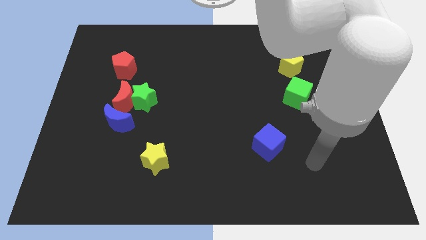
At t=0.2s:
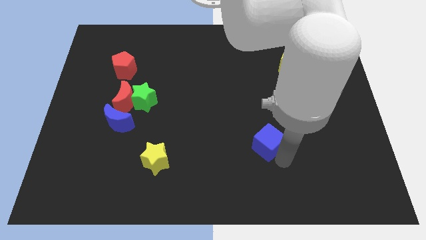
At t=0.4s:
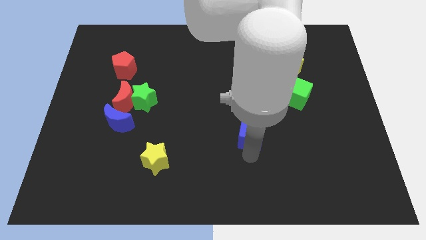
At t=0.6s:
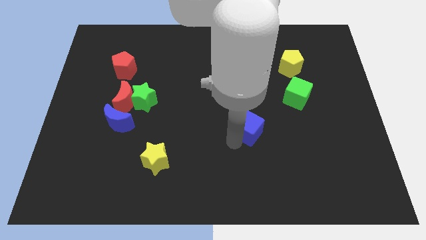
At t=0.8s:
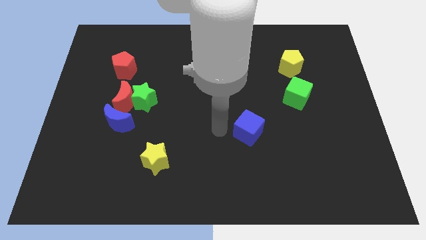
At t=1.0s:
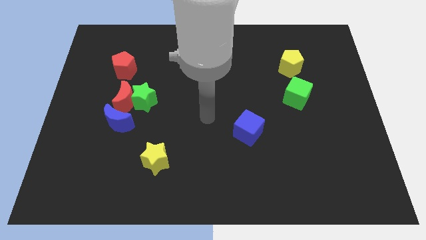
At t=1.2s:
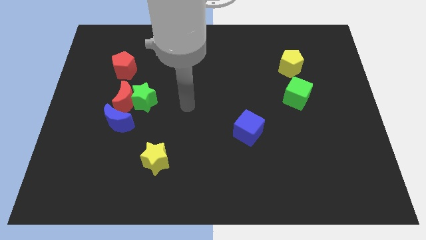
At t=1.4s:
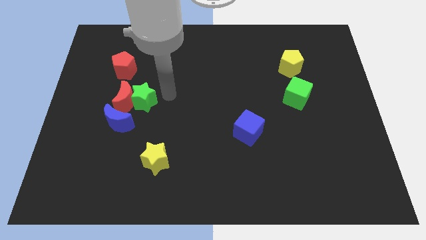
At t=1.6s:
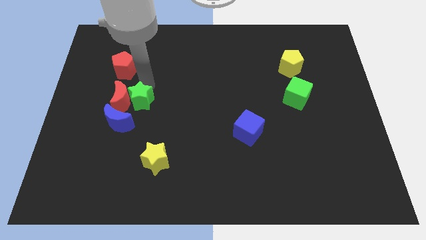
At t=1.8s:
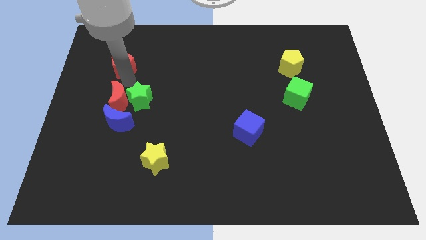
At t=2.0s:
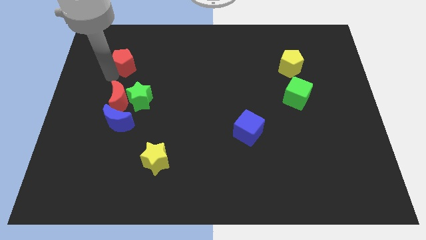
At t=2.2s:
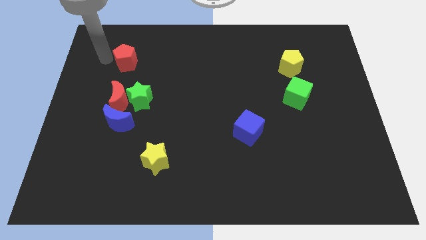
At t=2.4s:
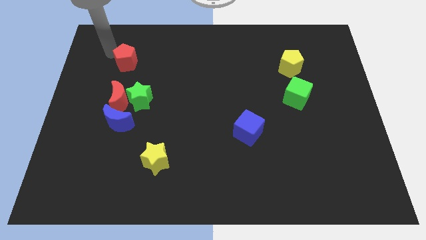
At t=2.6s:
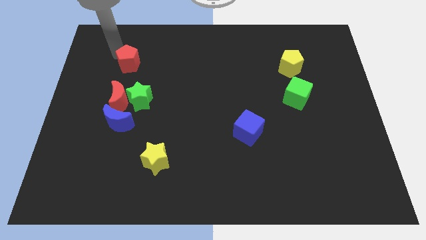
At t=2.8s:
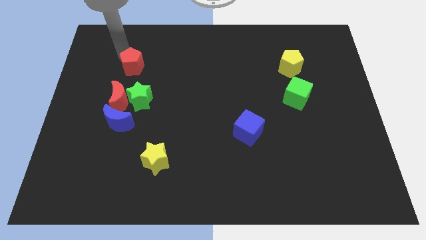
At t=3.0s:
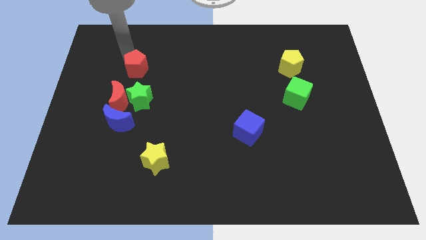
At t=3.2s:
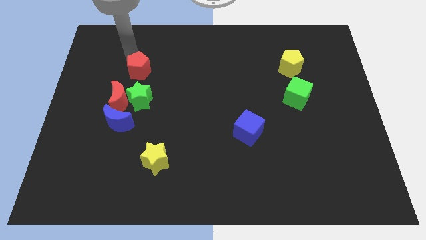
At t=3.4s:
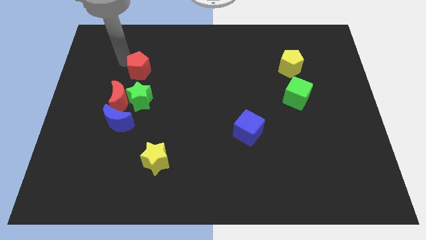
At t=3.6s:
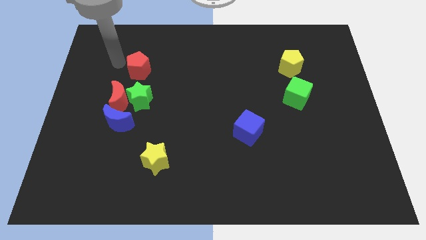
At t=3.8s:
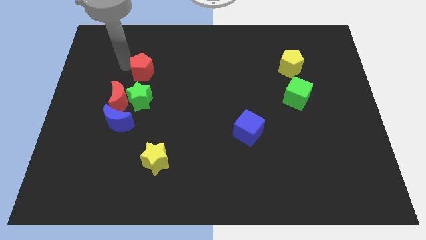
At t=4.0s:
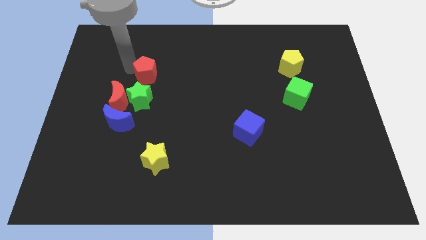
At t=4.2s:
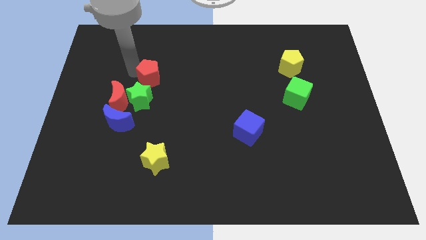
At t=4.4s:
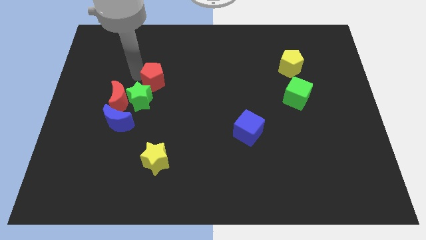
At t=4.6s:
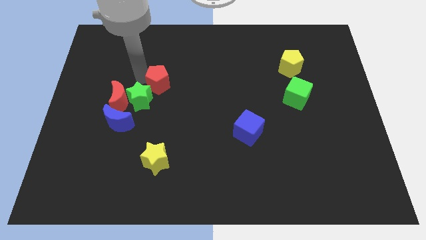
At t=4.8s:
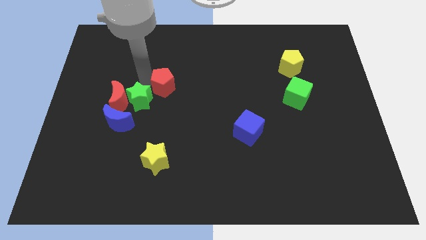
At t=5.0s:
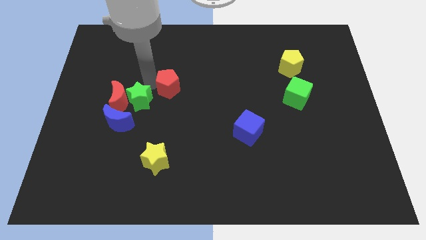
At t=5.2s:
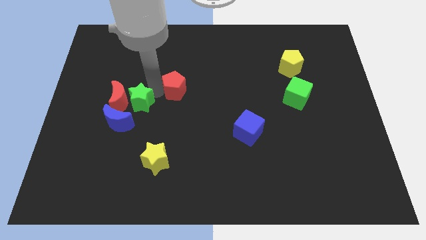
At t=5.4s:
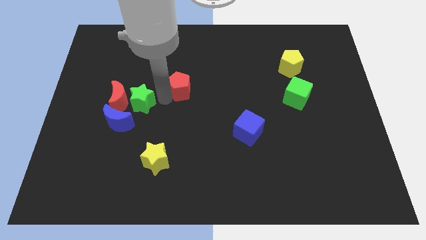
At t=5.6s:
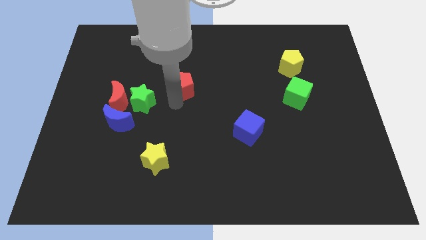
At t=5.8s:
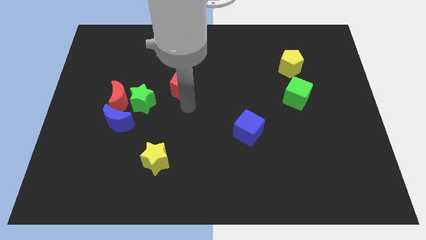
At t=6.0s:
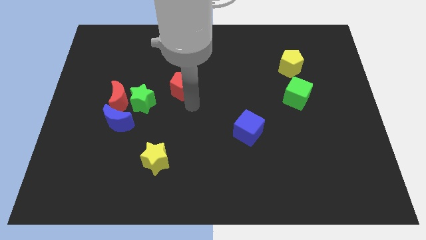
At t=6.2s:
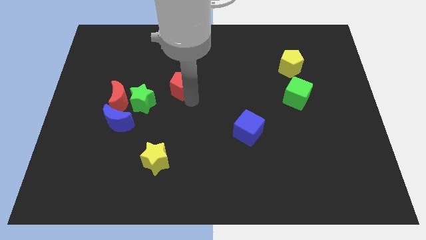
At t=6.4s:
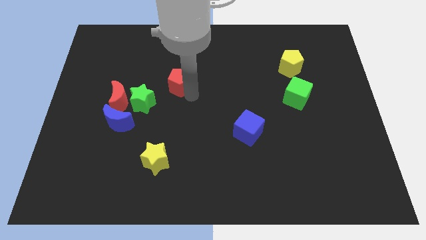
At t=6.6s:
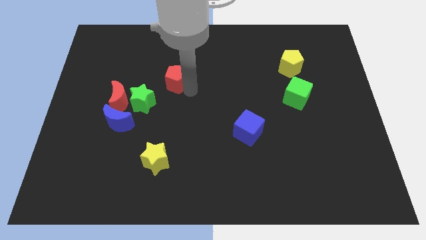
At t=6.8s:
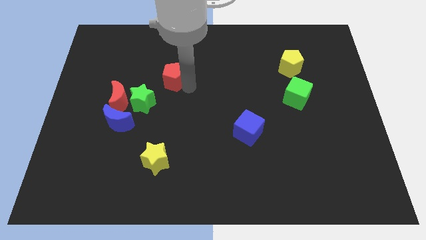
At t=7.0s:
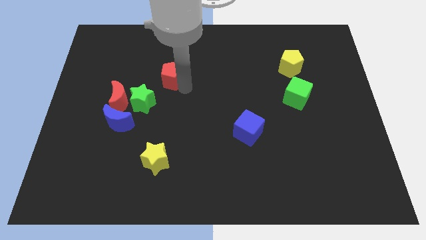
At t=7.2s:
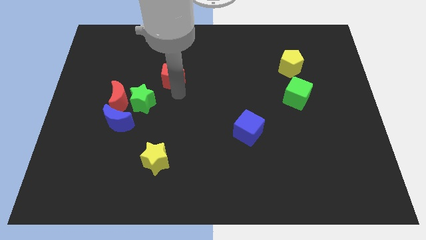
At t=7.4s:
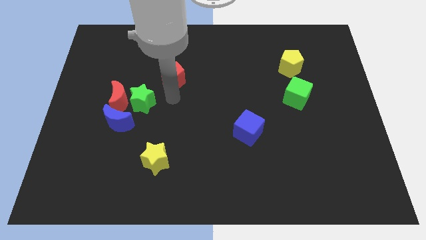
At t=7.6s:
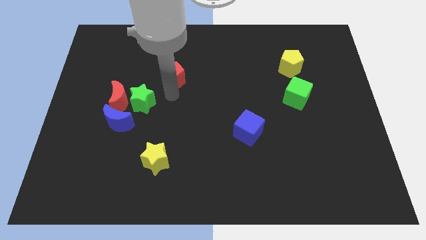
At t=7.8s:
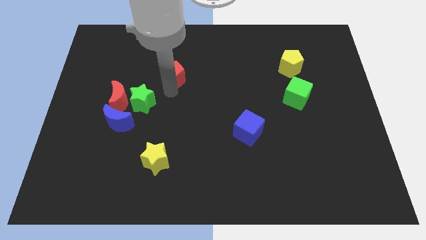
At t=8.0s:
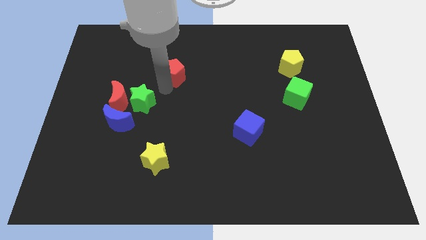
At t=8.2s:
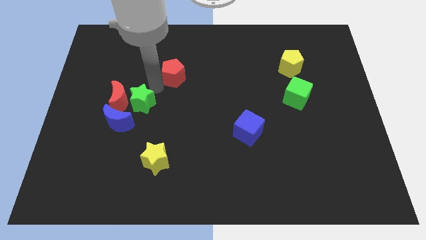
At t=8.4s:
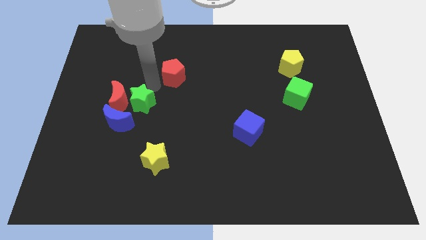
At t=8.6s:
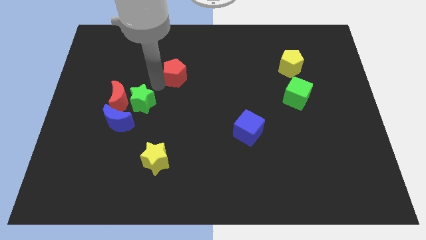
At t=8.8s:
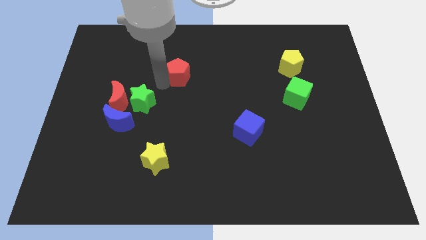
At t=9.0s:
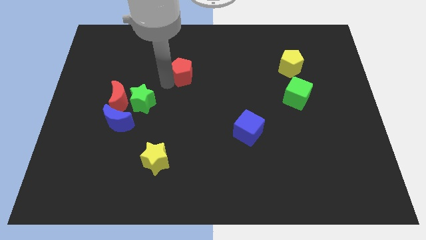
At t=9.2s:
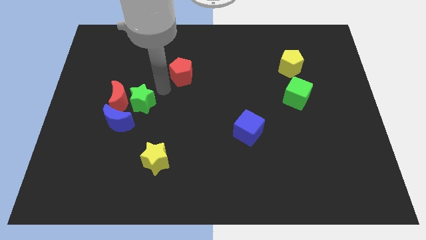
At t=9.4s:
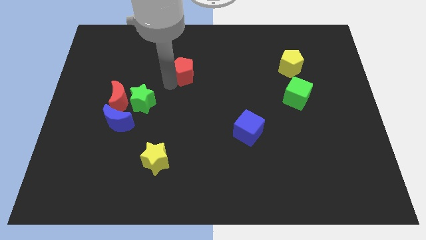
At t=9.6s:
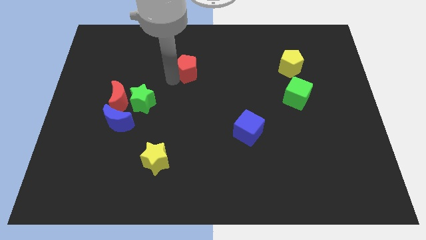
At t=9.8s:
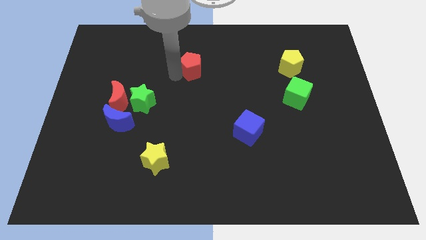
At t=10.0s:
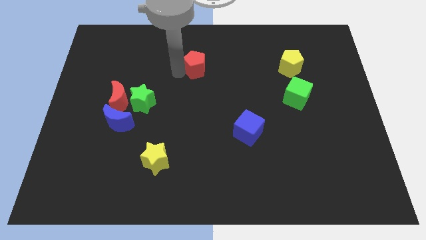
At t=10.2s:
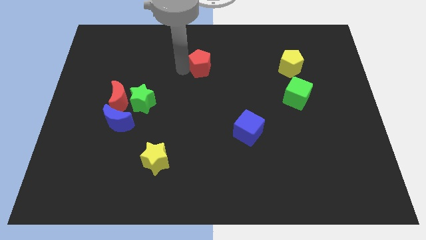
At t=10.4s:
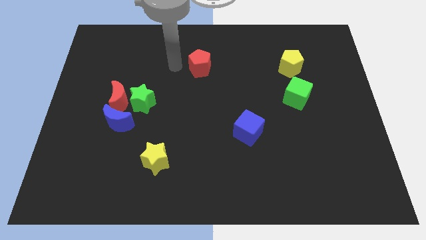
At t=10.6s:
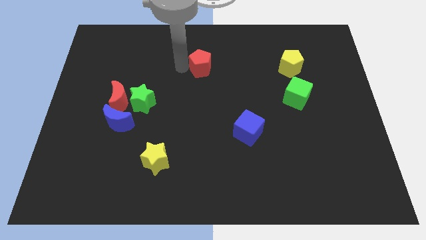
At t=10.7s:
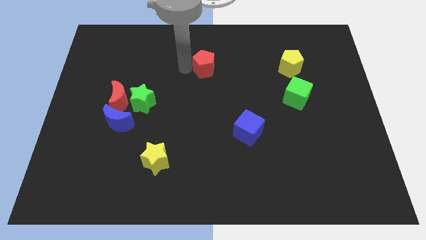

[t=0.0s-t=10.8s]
push the red pentagon right

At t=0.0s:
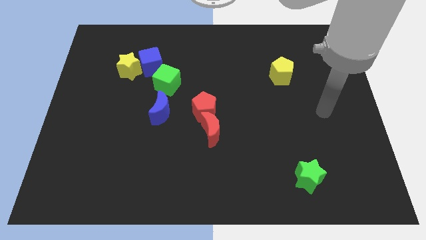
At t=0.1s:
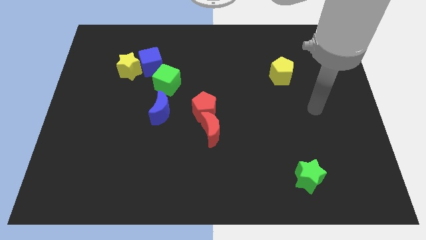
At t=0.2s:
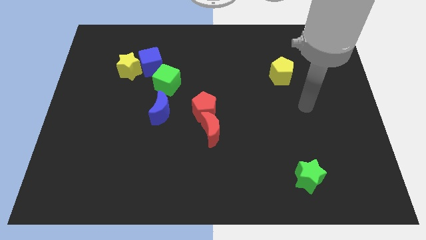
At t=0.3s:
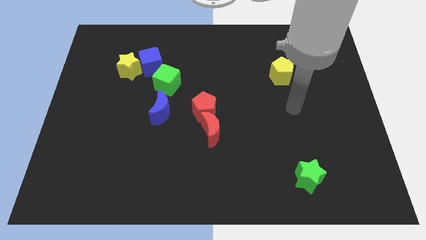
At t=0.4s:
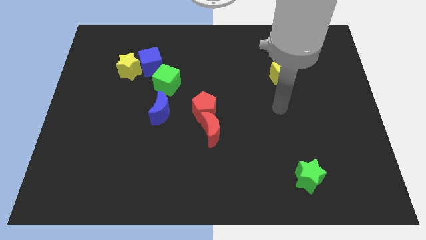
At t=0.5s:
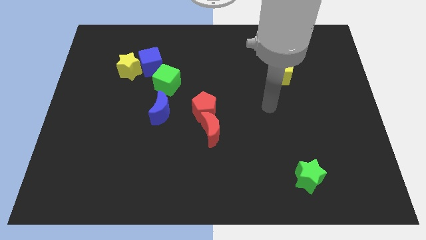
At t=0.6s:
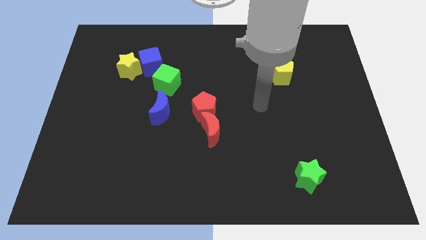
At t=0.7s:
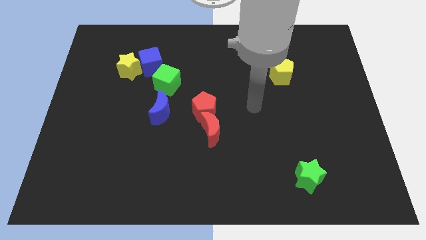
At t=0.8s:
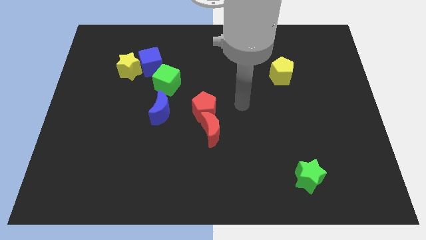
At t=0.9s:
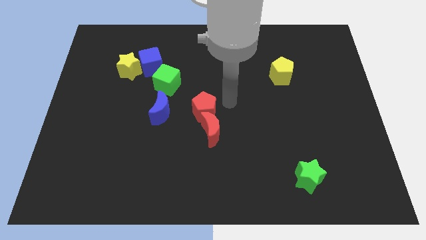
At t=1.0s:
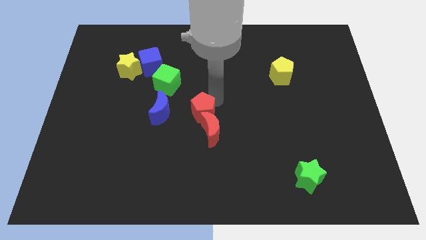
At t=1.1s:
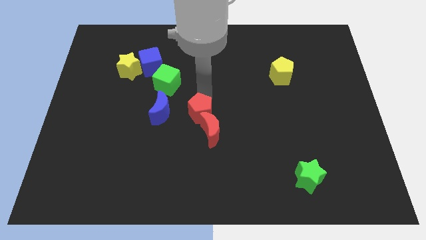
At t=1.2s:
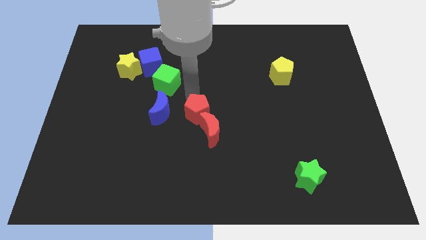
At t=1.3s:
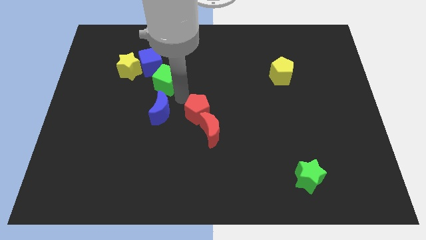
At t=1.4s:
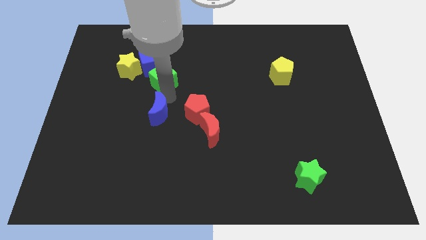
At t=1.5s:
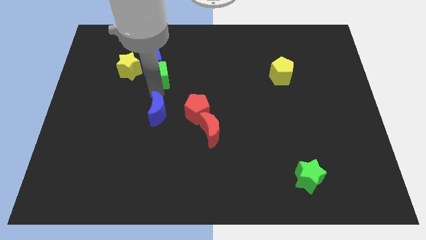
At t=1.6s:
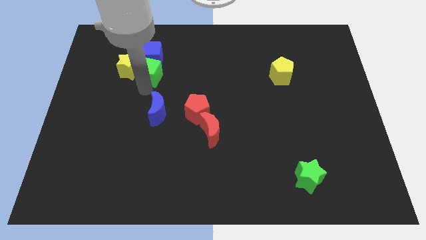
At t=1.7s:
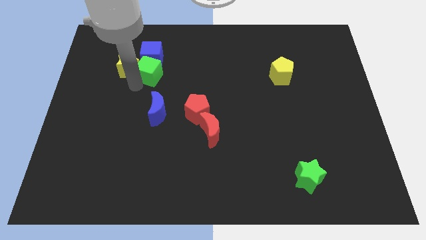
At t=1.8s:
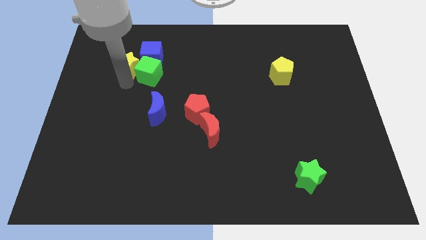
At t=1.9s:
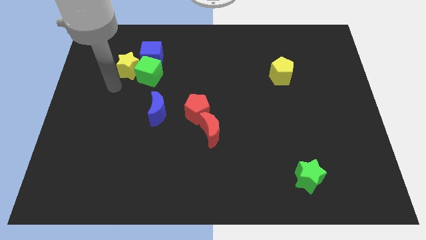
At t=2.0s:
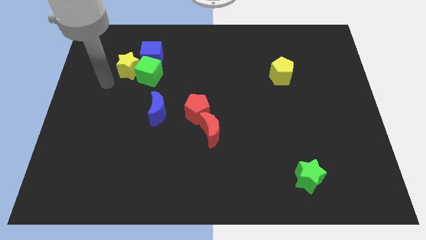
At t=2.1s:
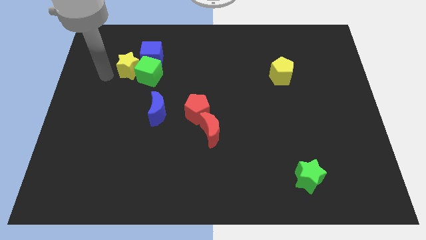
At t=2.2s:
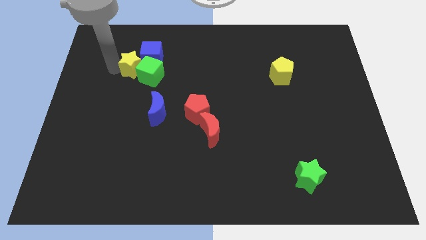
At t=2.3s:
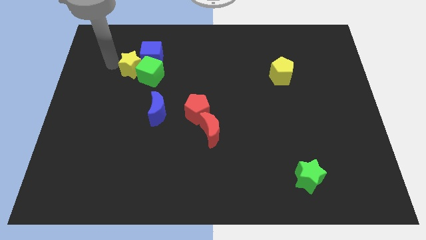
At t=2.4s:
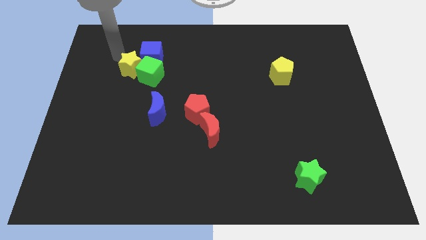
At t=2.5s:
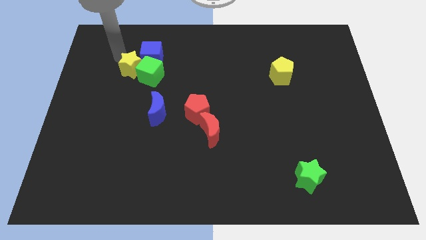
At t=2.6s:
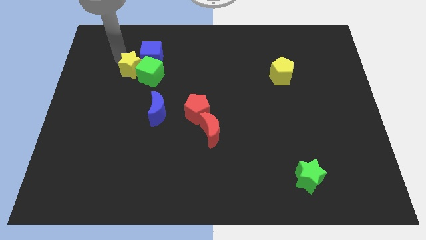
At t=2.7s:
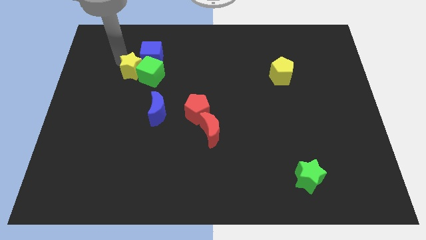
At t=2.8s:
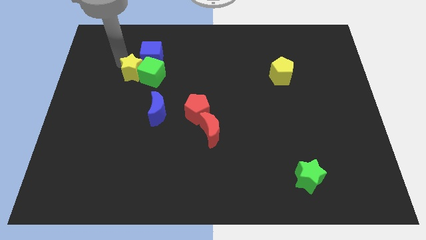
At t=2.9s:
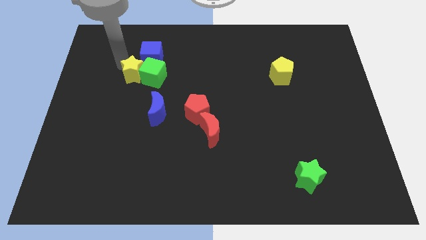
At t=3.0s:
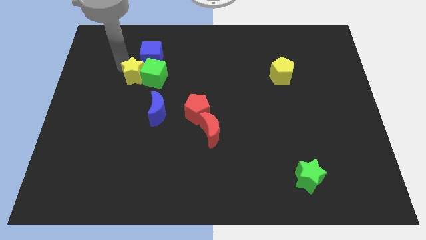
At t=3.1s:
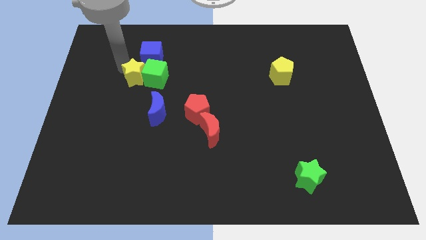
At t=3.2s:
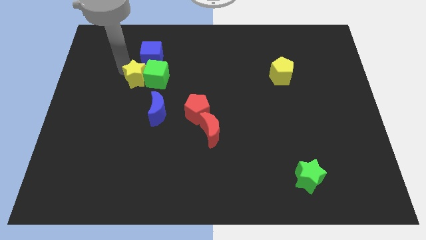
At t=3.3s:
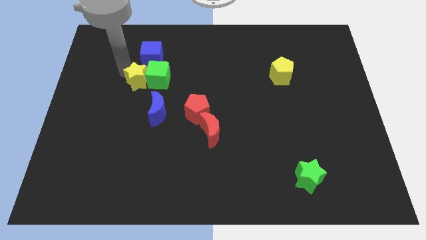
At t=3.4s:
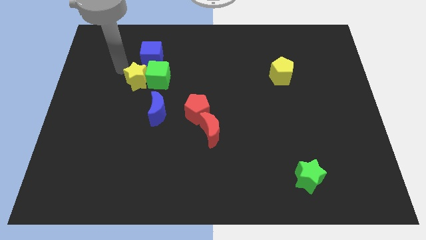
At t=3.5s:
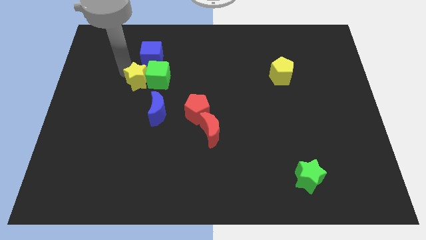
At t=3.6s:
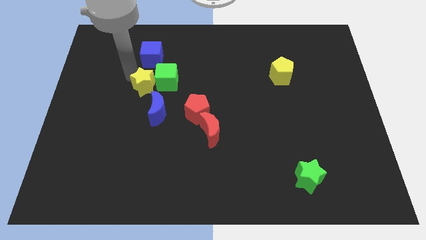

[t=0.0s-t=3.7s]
slide the yellow star down and then to the right slightly
